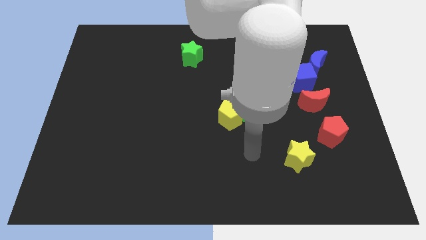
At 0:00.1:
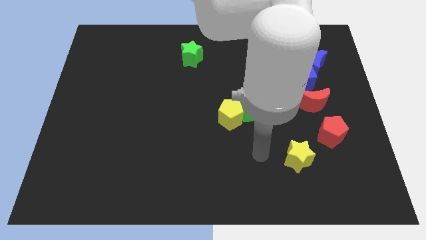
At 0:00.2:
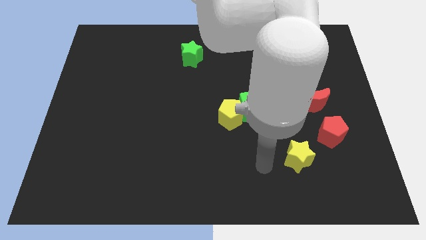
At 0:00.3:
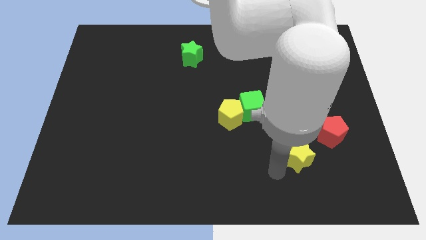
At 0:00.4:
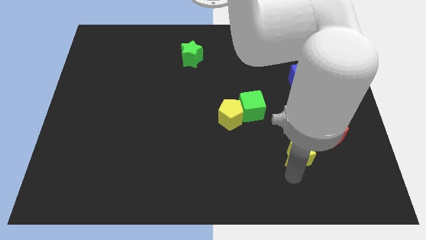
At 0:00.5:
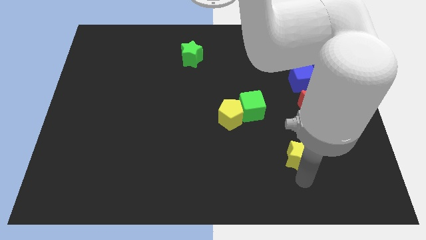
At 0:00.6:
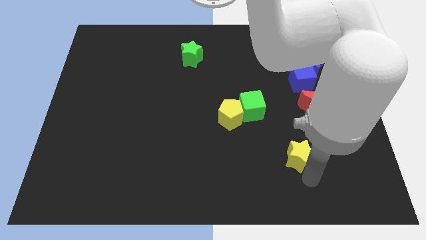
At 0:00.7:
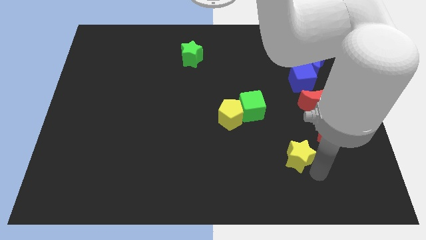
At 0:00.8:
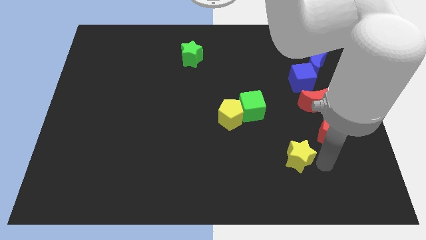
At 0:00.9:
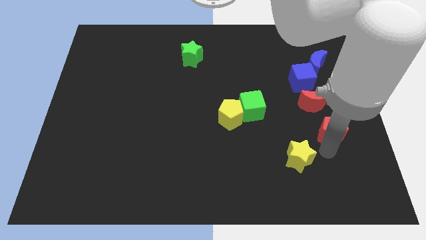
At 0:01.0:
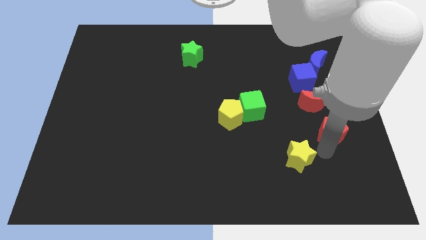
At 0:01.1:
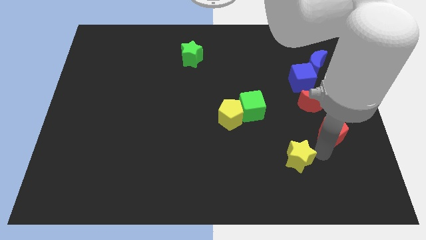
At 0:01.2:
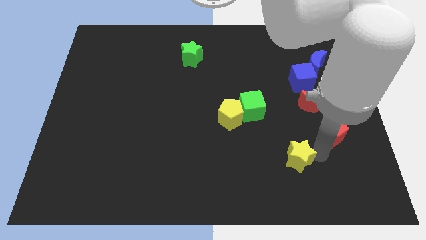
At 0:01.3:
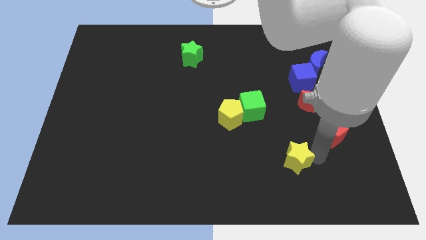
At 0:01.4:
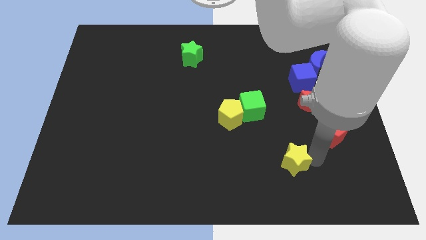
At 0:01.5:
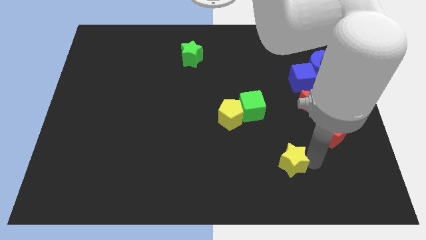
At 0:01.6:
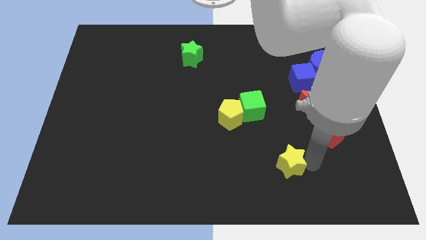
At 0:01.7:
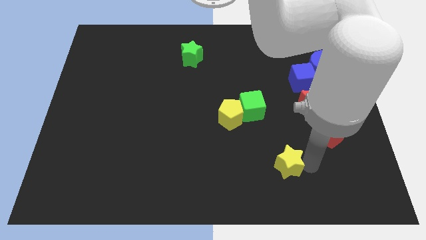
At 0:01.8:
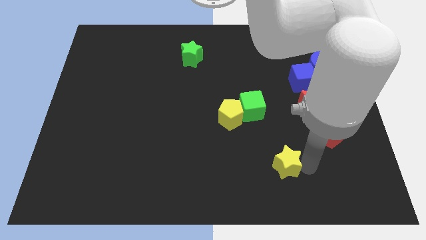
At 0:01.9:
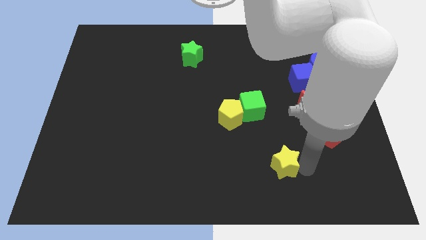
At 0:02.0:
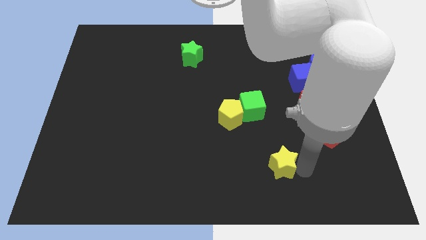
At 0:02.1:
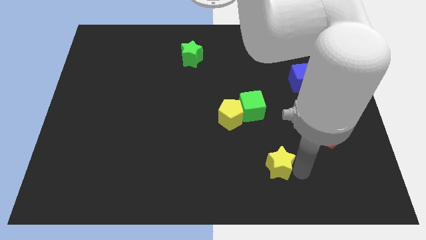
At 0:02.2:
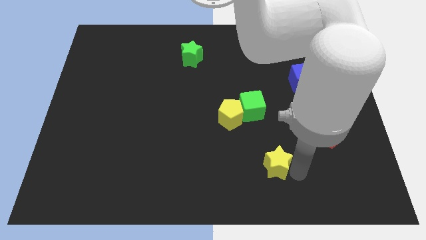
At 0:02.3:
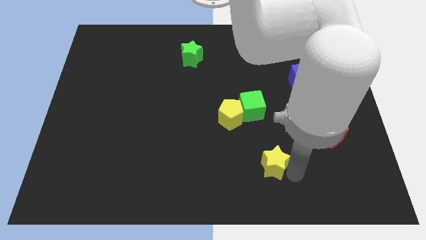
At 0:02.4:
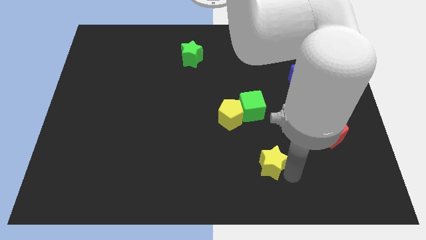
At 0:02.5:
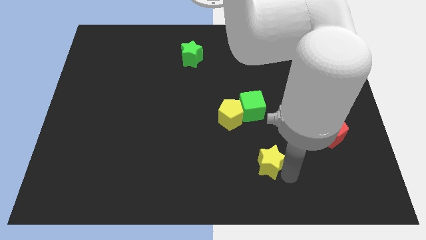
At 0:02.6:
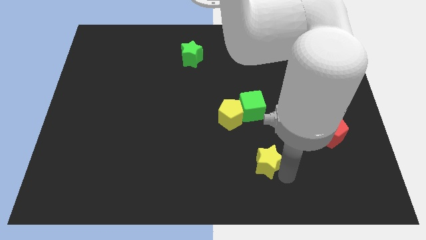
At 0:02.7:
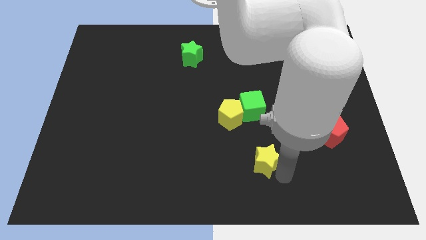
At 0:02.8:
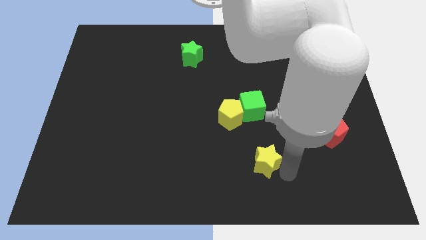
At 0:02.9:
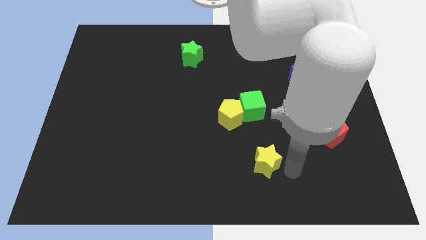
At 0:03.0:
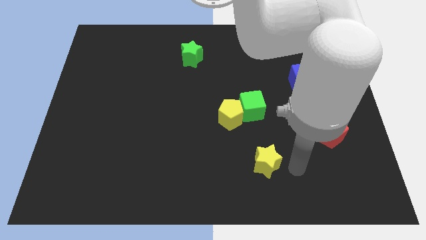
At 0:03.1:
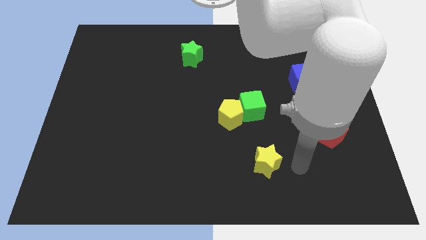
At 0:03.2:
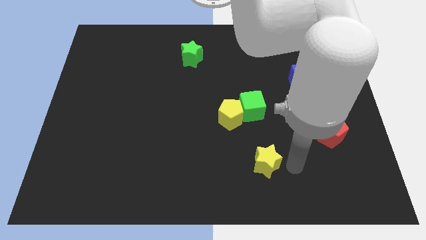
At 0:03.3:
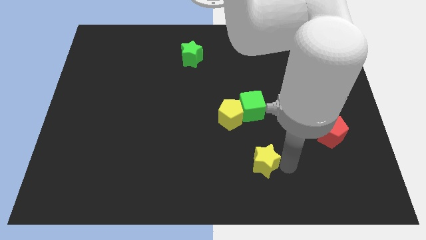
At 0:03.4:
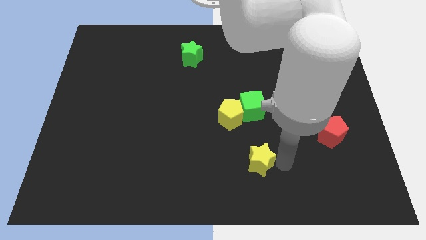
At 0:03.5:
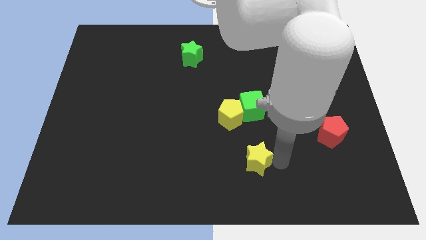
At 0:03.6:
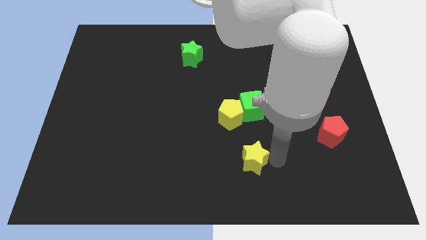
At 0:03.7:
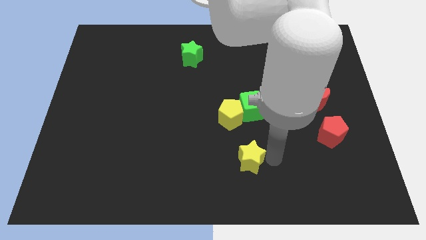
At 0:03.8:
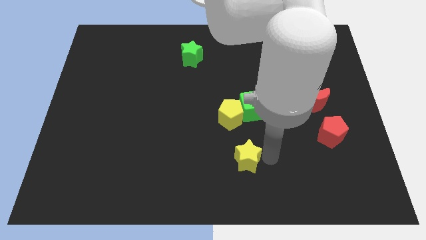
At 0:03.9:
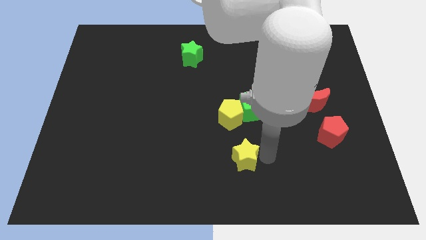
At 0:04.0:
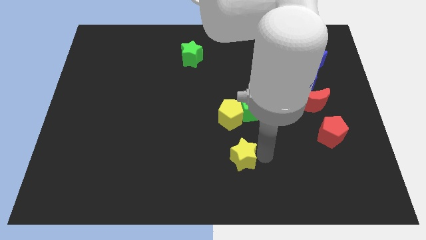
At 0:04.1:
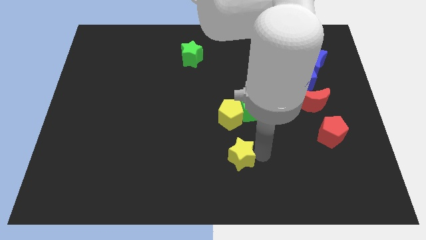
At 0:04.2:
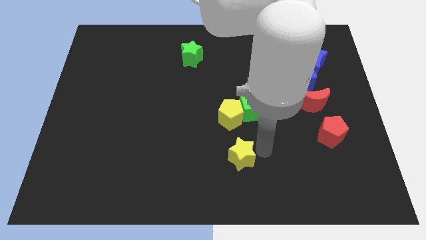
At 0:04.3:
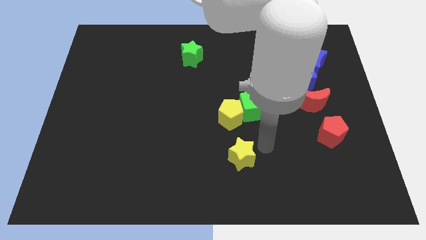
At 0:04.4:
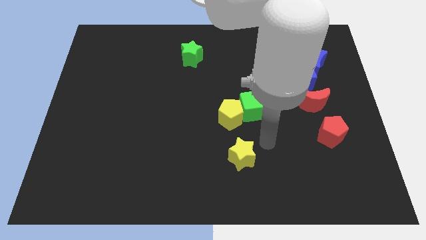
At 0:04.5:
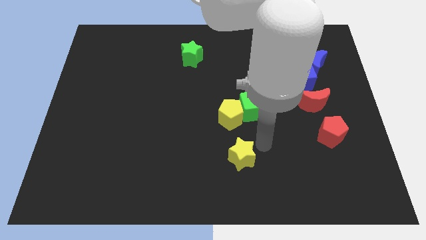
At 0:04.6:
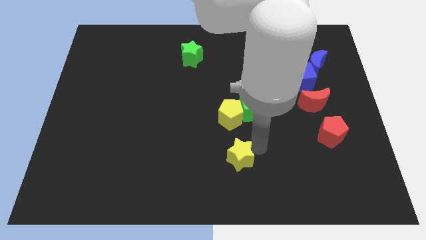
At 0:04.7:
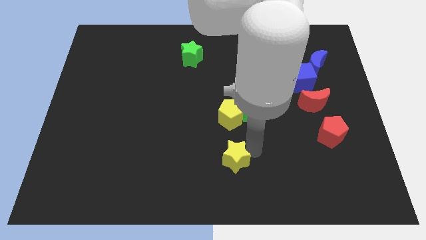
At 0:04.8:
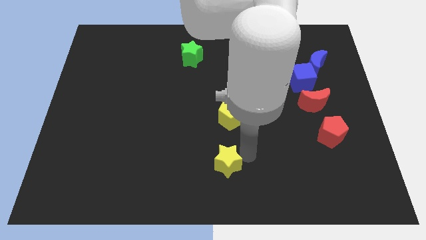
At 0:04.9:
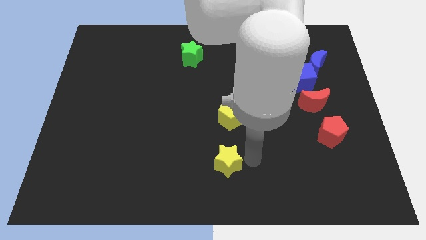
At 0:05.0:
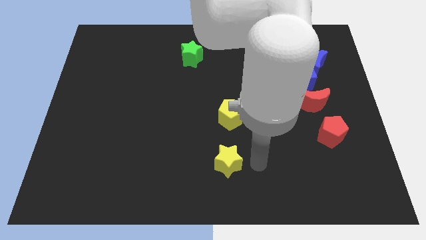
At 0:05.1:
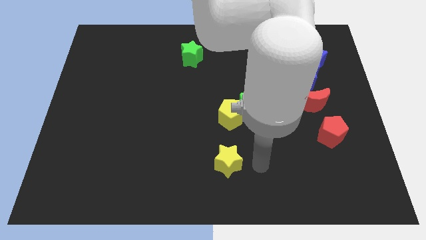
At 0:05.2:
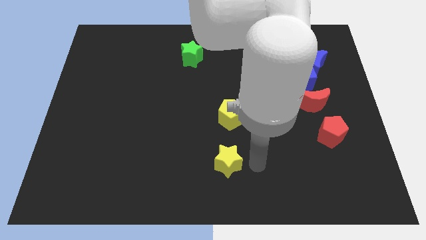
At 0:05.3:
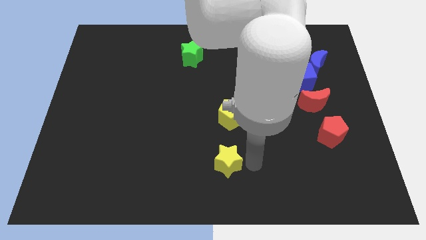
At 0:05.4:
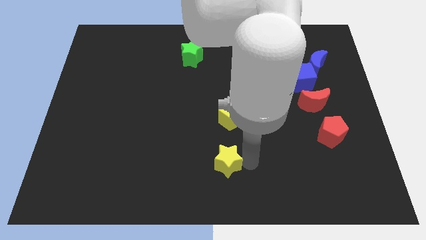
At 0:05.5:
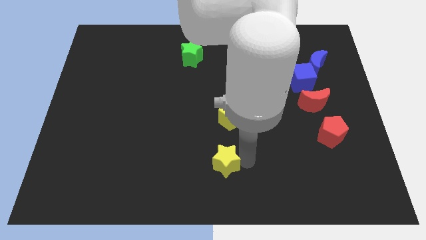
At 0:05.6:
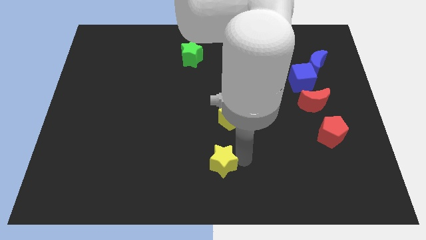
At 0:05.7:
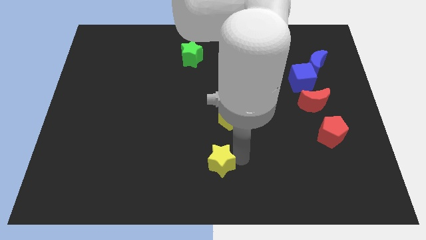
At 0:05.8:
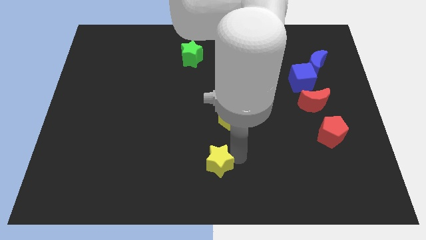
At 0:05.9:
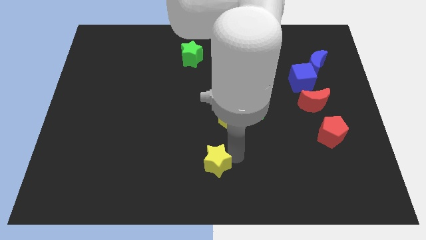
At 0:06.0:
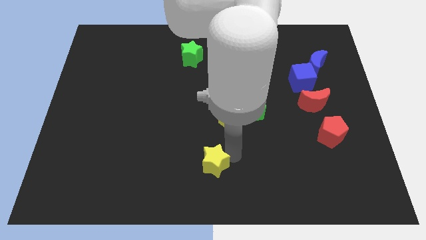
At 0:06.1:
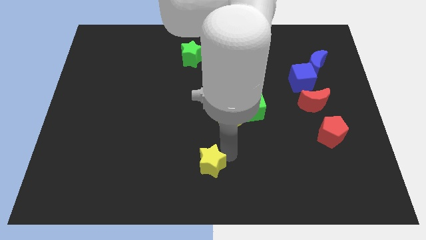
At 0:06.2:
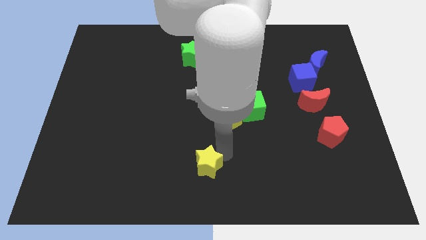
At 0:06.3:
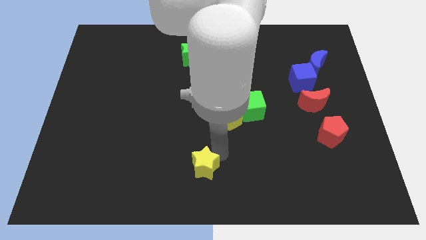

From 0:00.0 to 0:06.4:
slide the yellow star left

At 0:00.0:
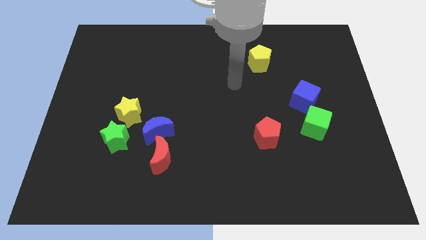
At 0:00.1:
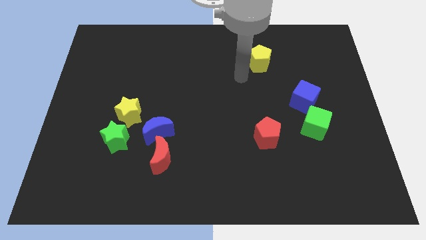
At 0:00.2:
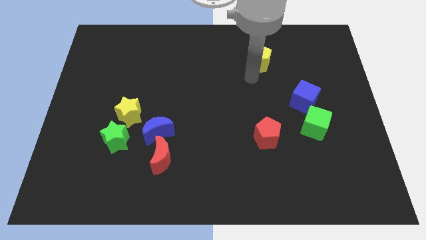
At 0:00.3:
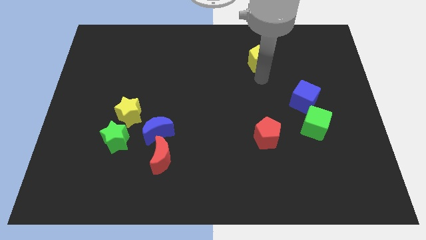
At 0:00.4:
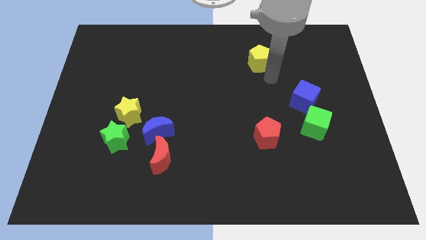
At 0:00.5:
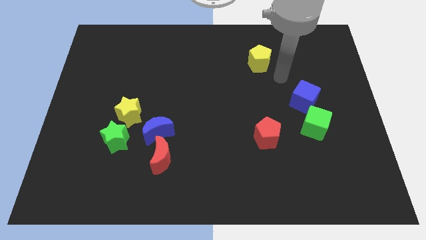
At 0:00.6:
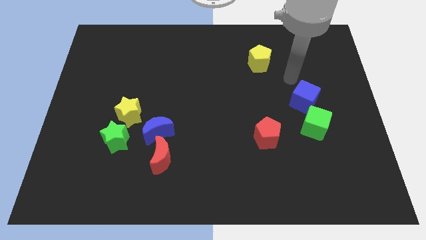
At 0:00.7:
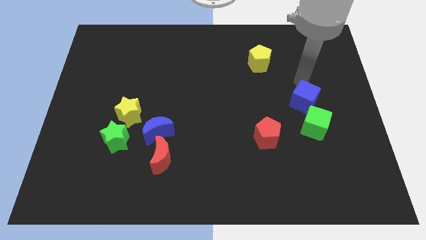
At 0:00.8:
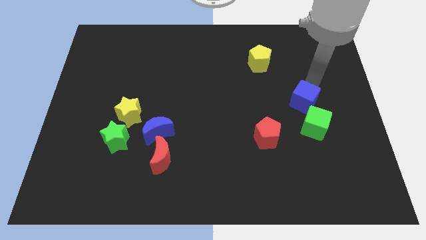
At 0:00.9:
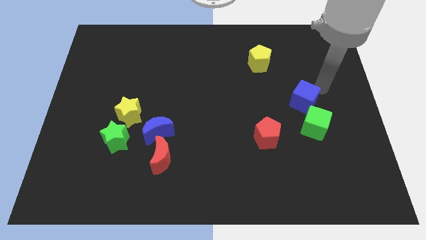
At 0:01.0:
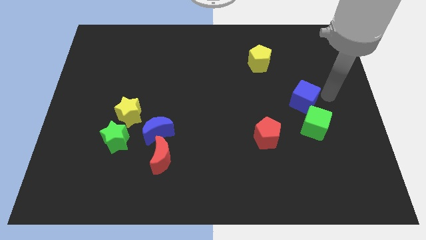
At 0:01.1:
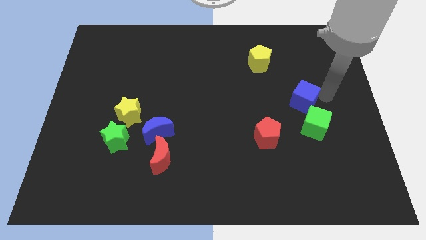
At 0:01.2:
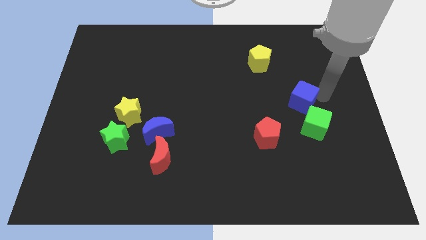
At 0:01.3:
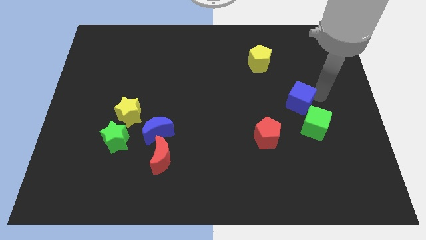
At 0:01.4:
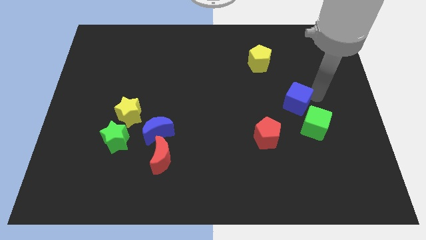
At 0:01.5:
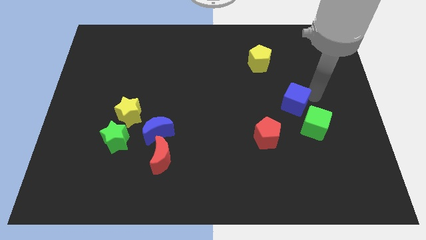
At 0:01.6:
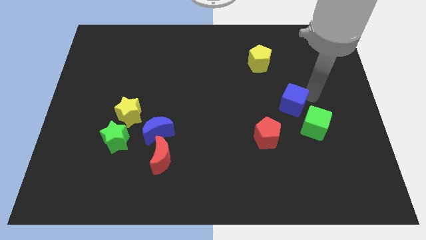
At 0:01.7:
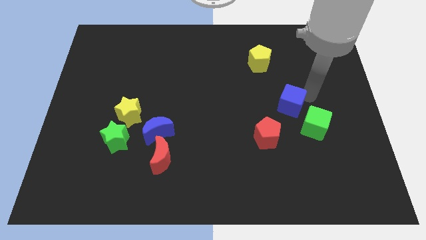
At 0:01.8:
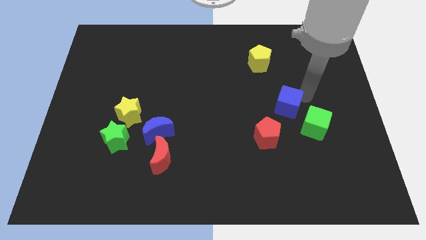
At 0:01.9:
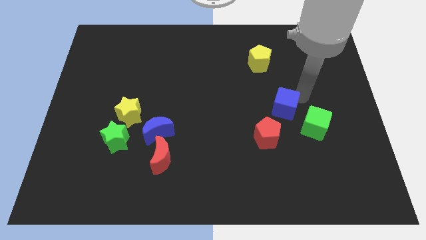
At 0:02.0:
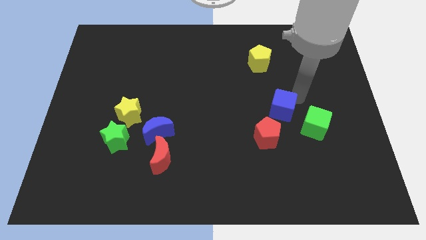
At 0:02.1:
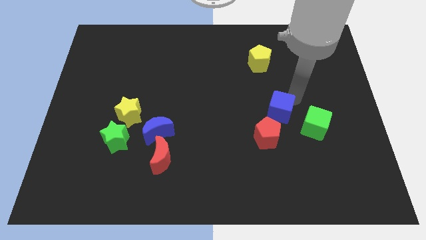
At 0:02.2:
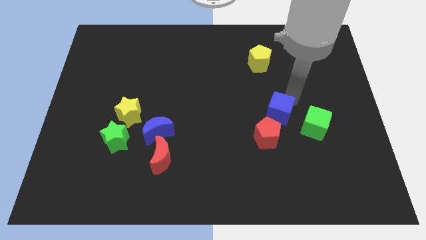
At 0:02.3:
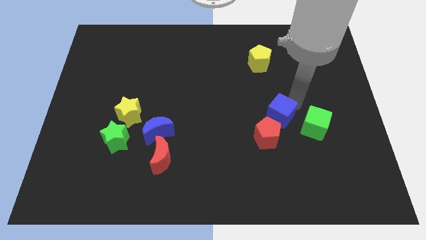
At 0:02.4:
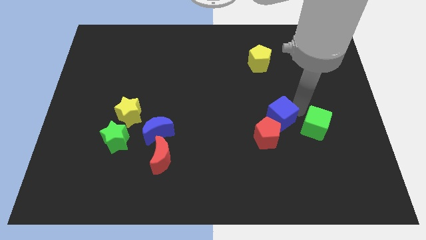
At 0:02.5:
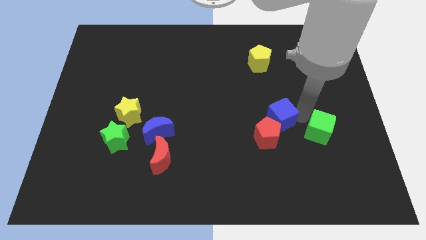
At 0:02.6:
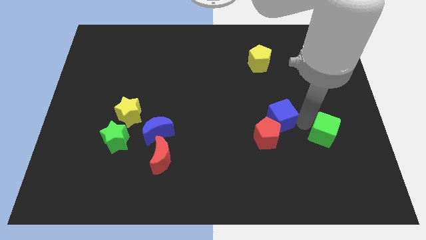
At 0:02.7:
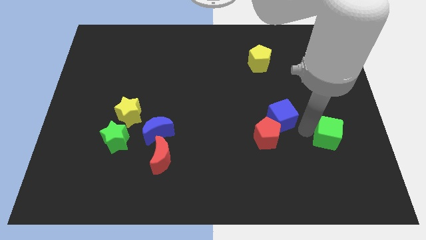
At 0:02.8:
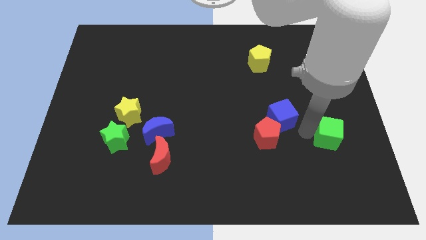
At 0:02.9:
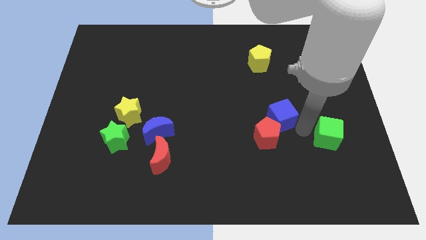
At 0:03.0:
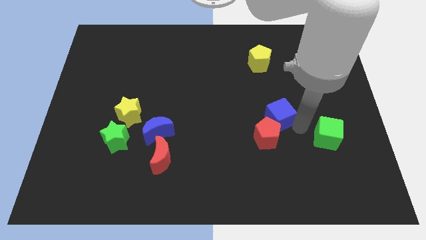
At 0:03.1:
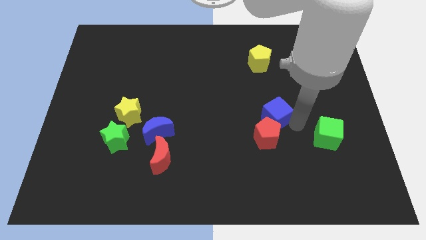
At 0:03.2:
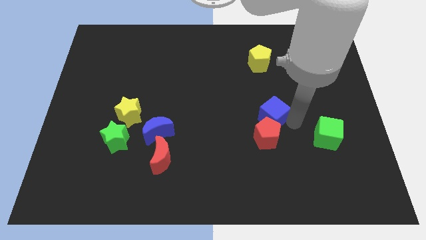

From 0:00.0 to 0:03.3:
slightly slide the blue cube to the left
